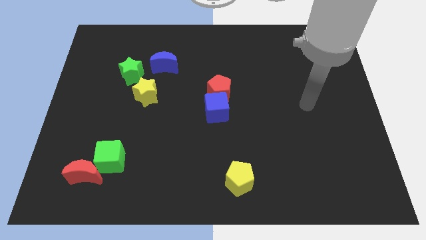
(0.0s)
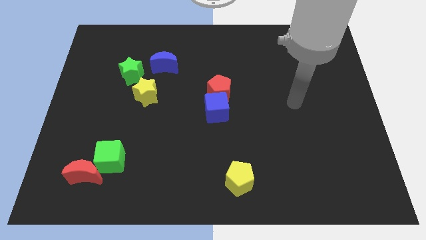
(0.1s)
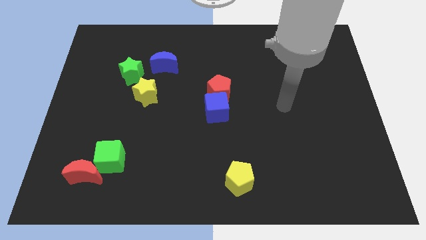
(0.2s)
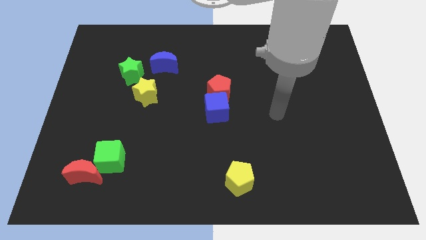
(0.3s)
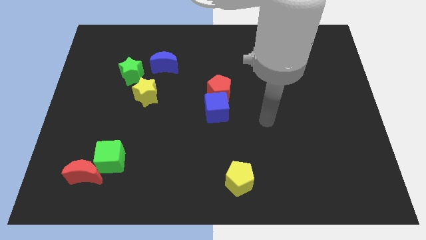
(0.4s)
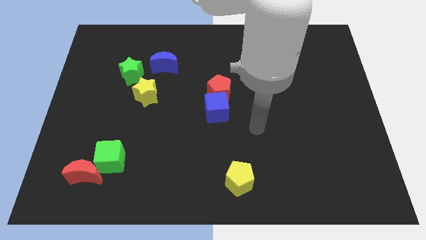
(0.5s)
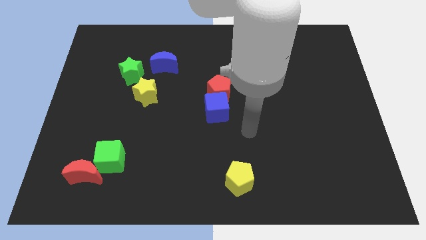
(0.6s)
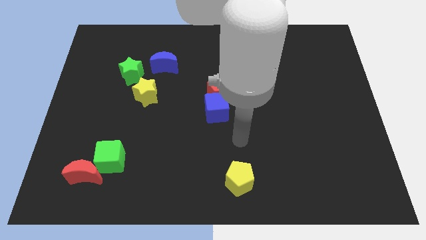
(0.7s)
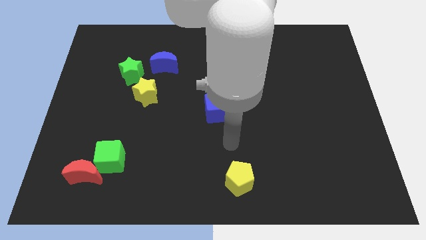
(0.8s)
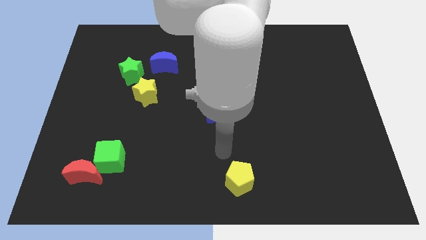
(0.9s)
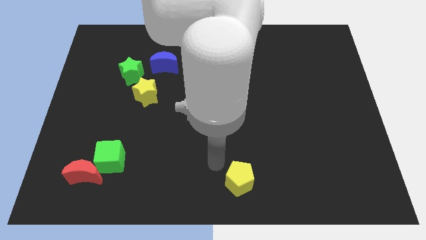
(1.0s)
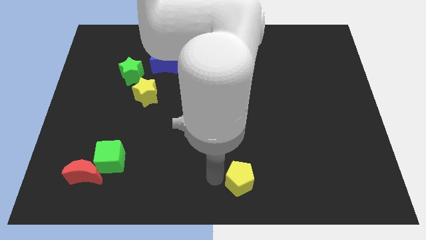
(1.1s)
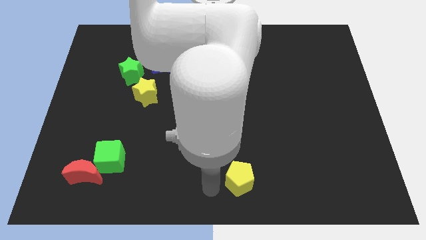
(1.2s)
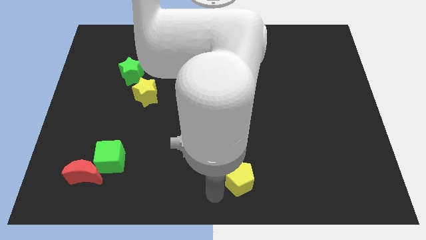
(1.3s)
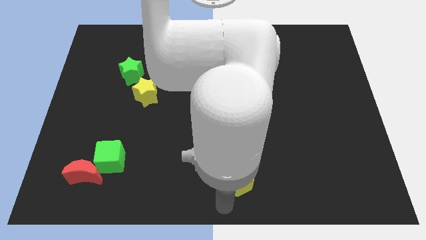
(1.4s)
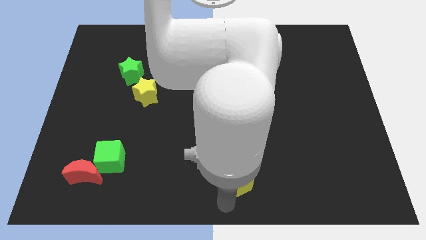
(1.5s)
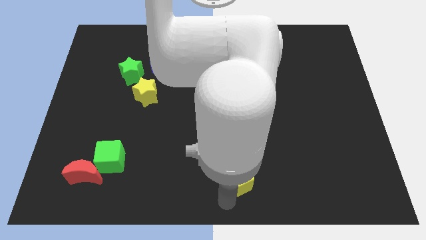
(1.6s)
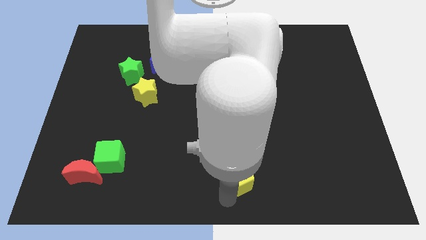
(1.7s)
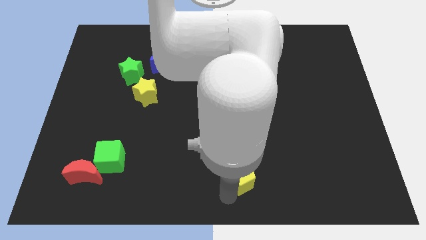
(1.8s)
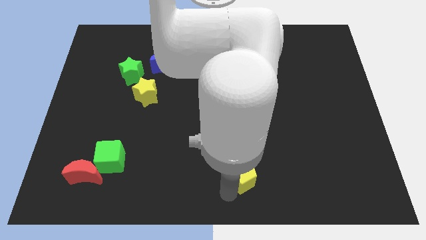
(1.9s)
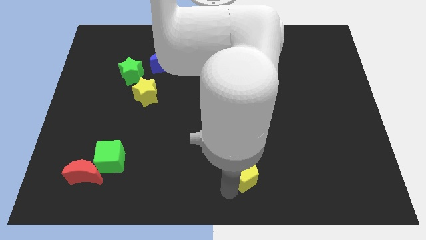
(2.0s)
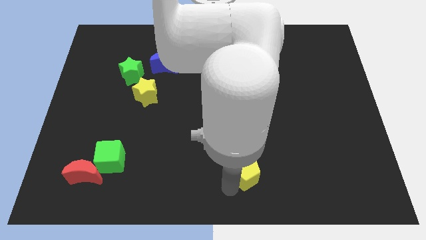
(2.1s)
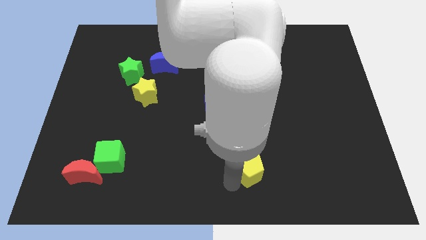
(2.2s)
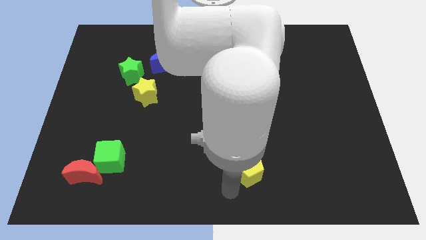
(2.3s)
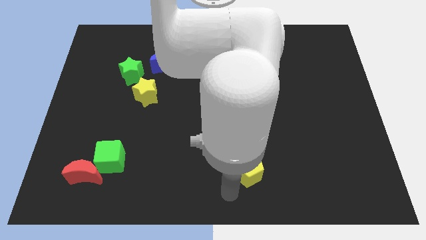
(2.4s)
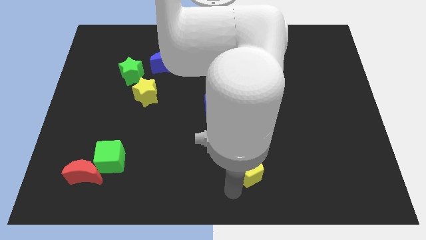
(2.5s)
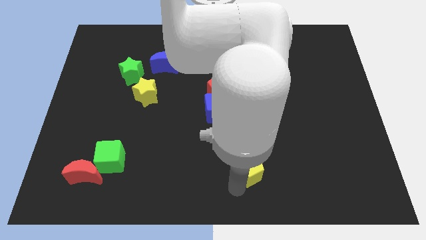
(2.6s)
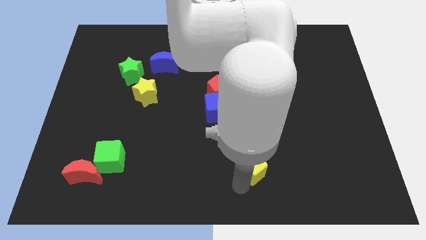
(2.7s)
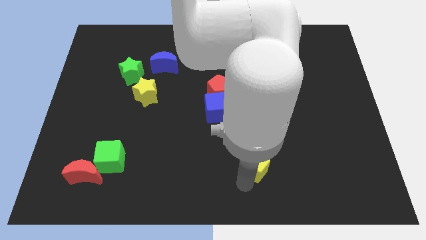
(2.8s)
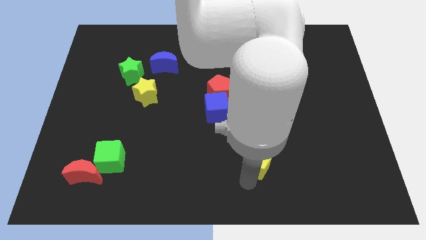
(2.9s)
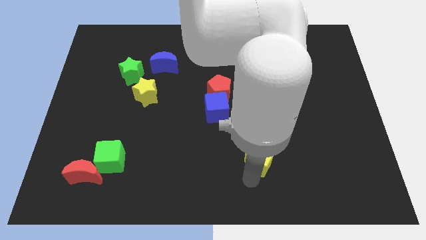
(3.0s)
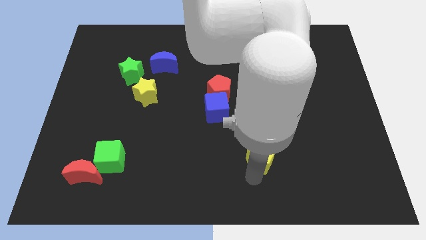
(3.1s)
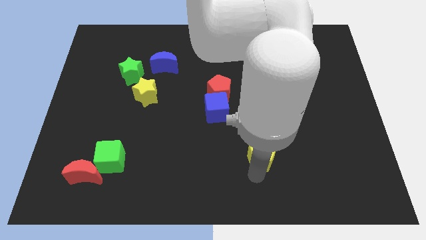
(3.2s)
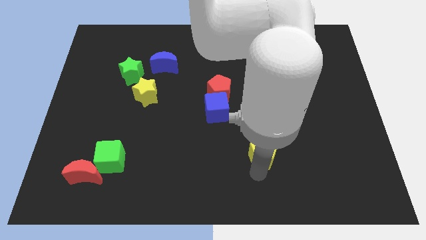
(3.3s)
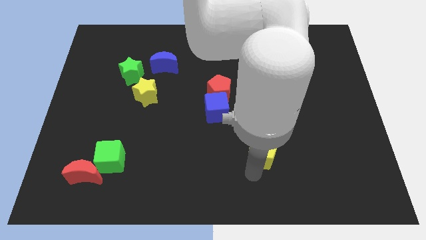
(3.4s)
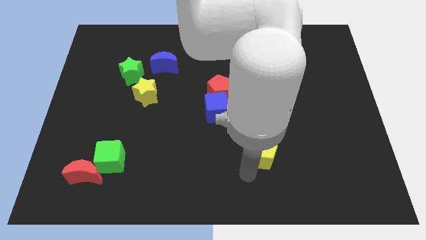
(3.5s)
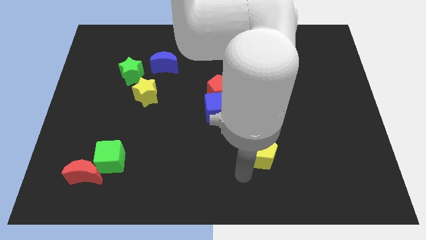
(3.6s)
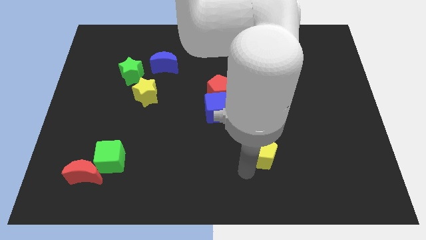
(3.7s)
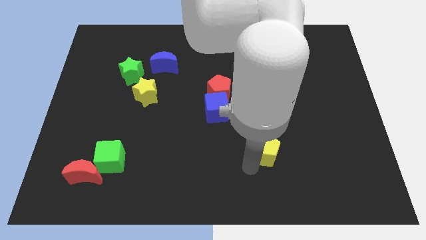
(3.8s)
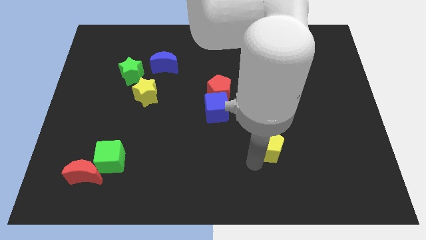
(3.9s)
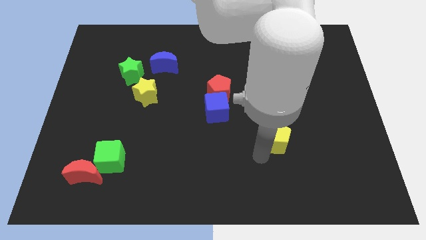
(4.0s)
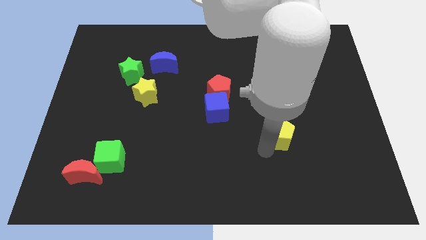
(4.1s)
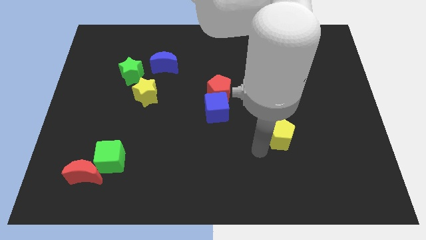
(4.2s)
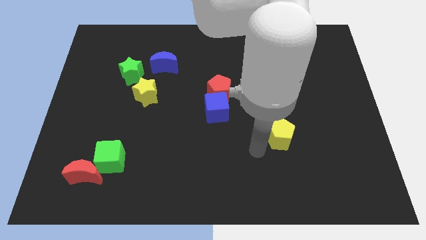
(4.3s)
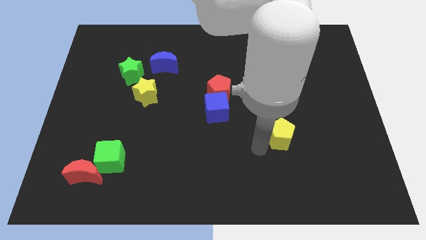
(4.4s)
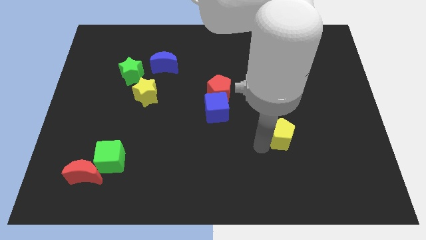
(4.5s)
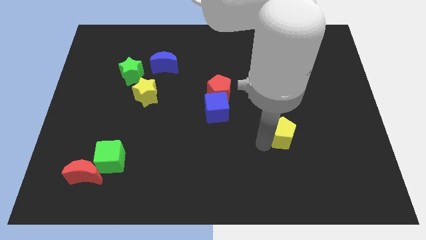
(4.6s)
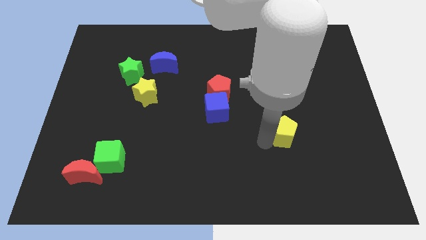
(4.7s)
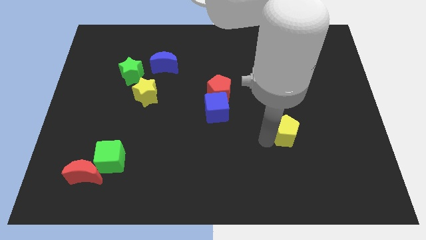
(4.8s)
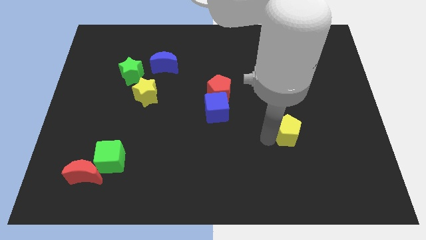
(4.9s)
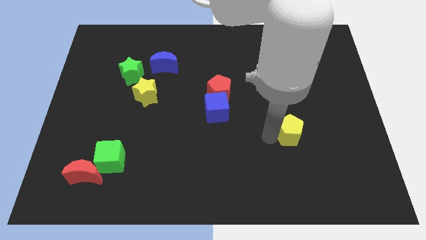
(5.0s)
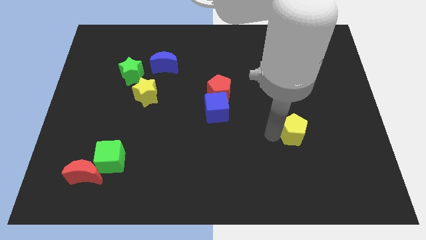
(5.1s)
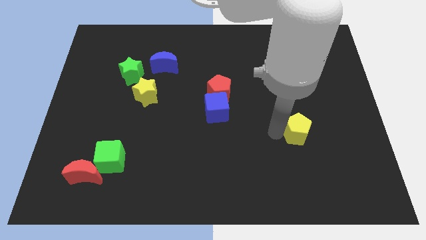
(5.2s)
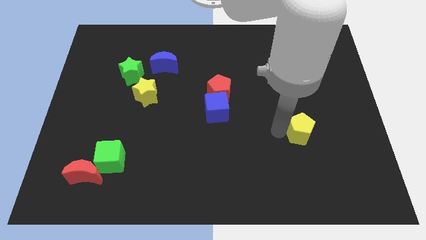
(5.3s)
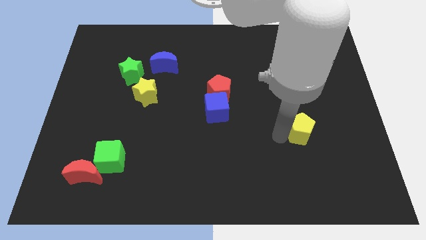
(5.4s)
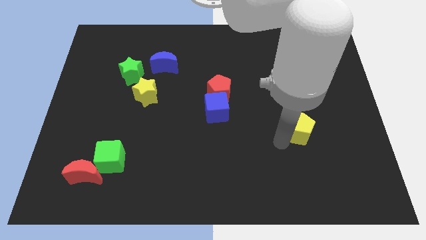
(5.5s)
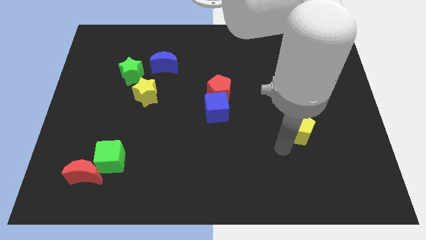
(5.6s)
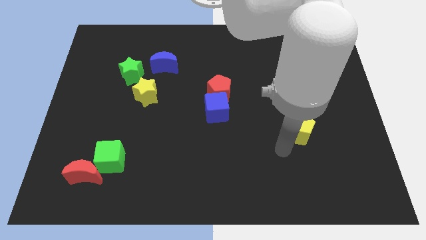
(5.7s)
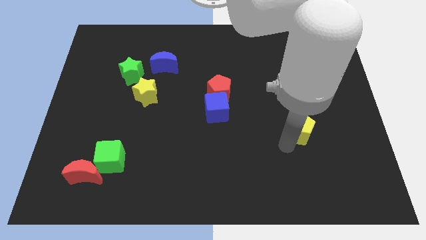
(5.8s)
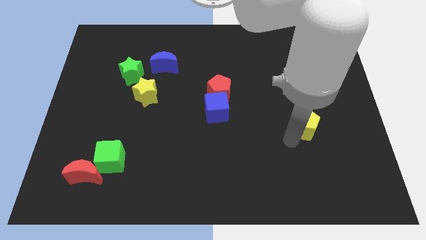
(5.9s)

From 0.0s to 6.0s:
push the yellow pentagon upwards and right

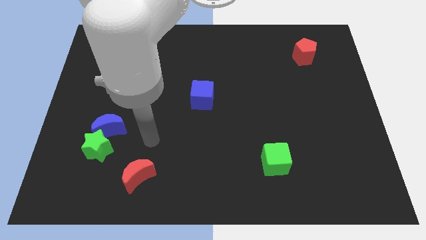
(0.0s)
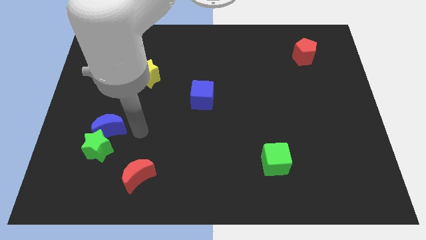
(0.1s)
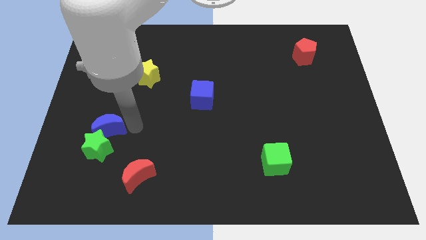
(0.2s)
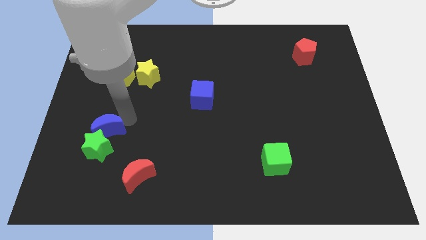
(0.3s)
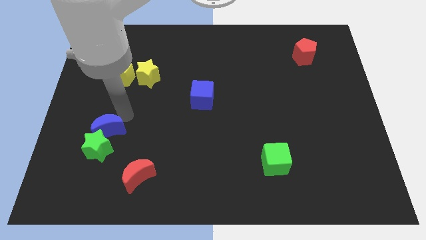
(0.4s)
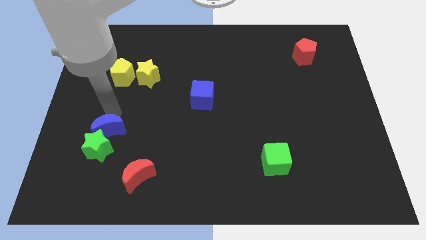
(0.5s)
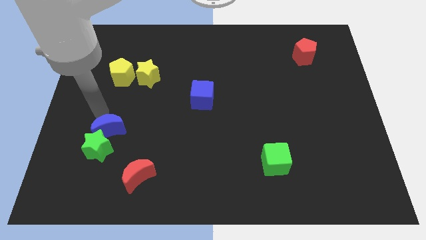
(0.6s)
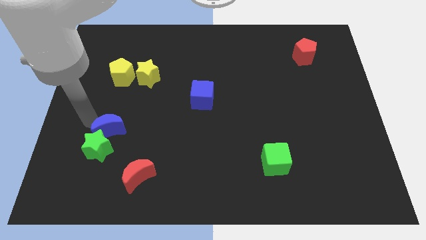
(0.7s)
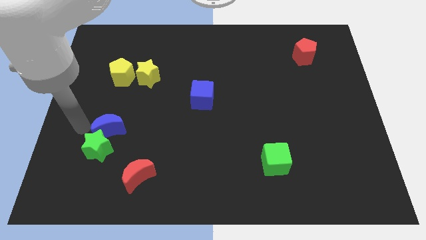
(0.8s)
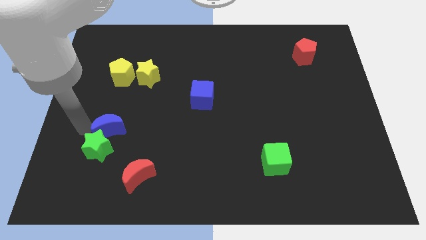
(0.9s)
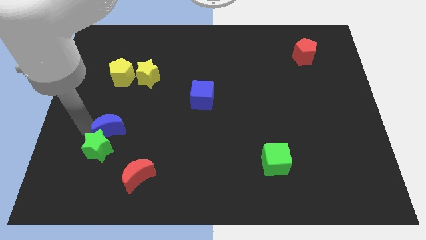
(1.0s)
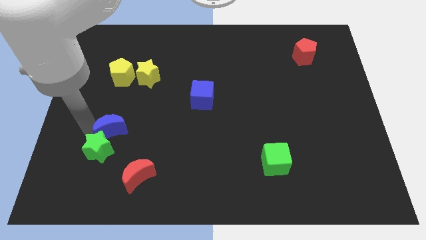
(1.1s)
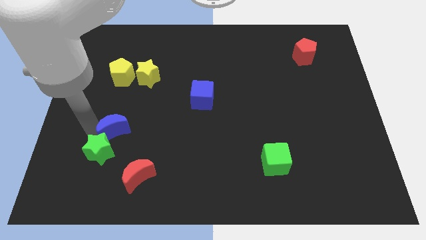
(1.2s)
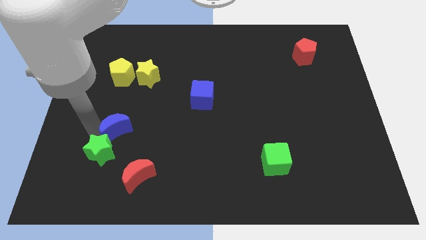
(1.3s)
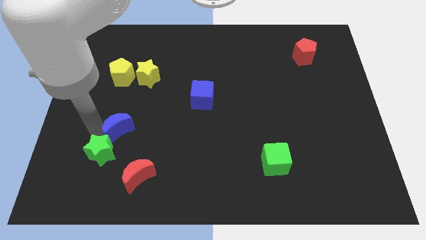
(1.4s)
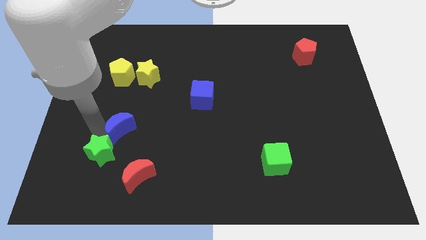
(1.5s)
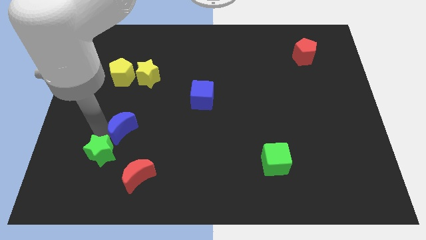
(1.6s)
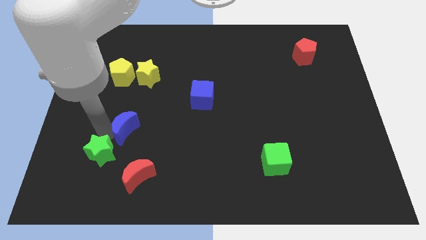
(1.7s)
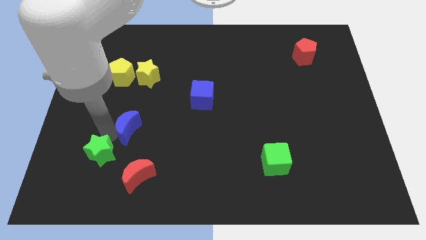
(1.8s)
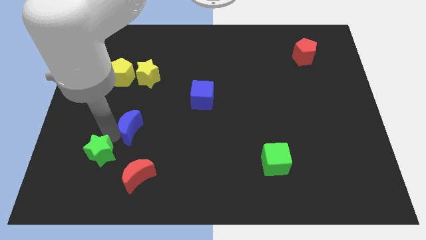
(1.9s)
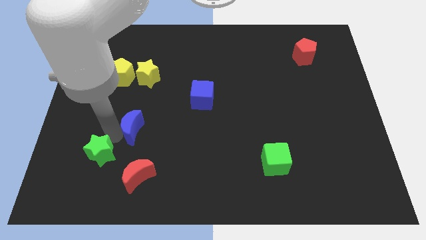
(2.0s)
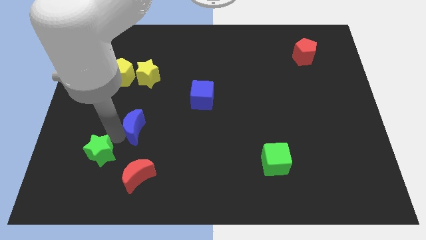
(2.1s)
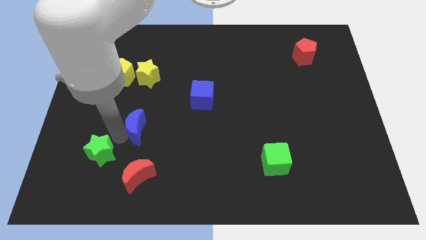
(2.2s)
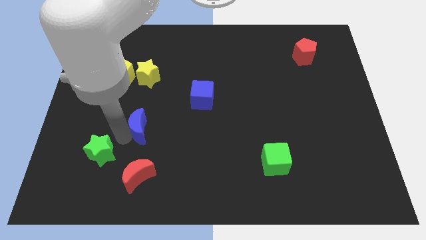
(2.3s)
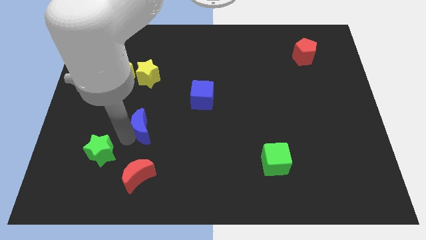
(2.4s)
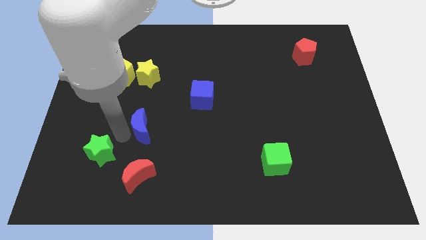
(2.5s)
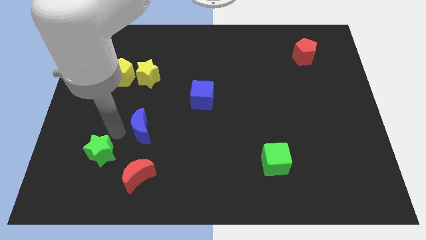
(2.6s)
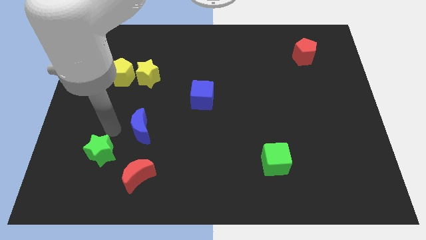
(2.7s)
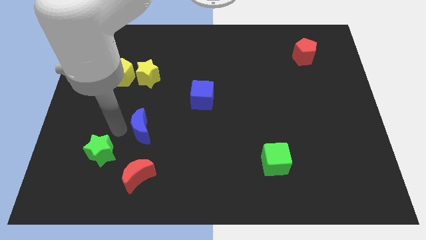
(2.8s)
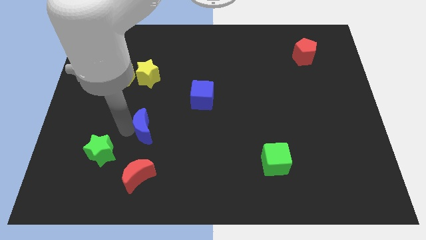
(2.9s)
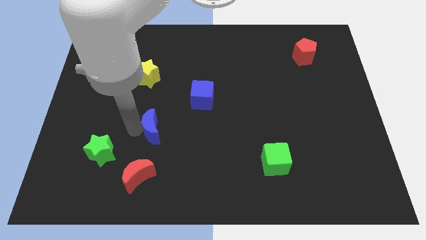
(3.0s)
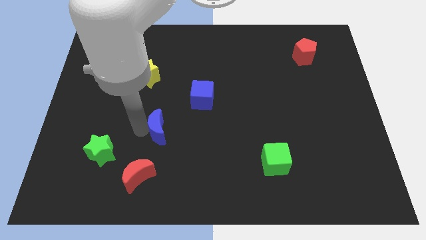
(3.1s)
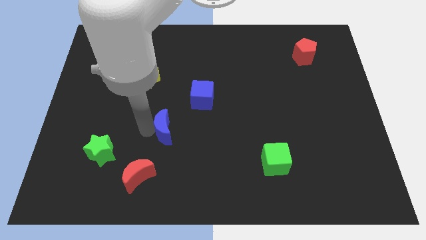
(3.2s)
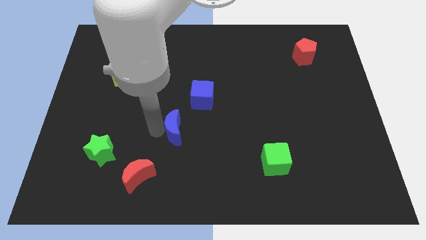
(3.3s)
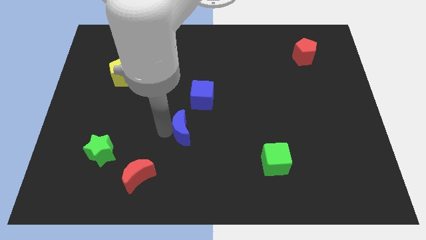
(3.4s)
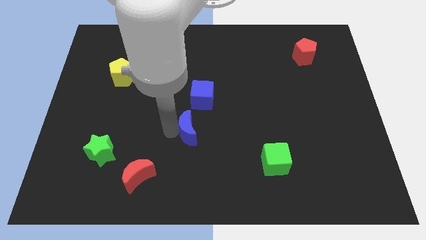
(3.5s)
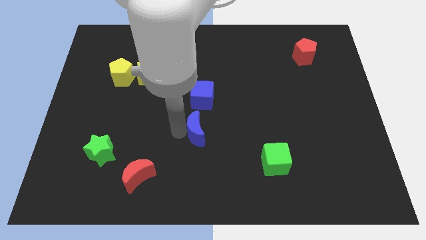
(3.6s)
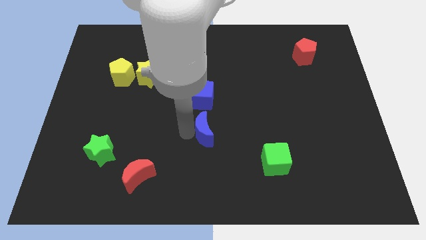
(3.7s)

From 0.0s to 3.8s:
push the blue moon right
